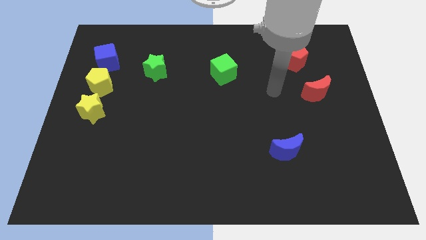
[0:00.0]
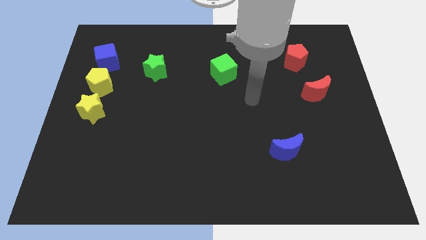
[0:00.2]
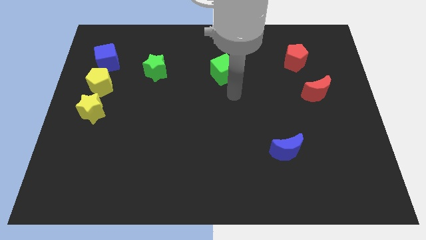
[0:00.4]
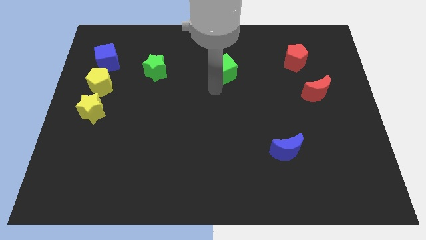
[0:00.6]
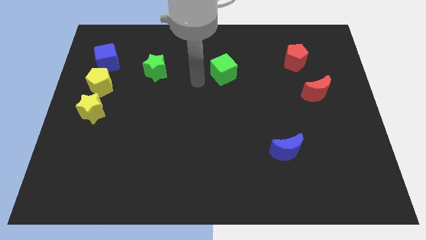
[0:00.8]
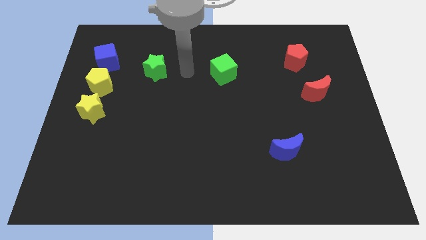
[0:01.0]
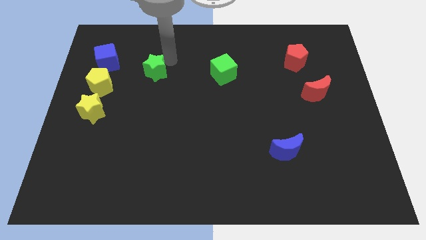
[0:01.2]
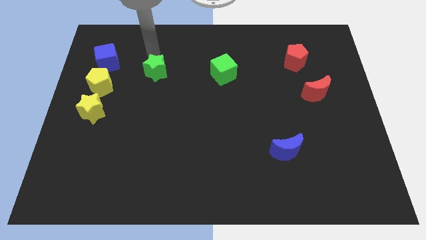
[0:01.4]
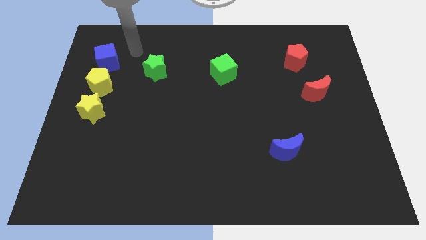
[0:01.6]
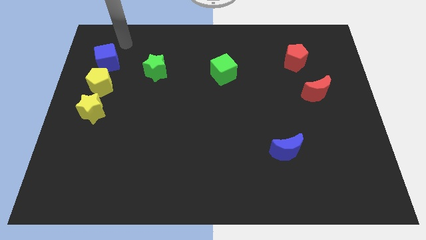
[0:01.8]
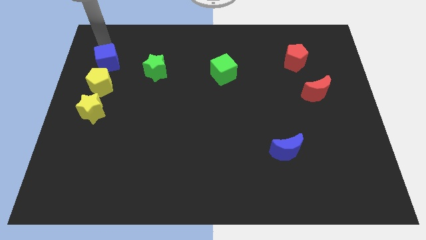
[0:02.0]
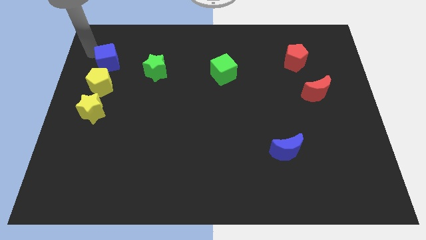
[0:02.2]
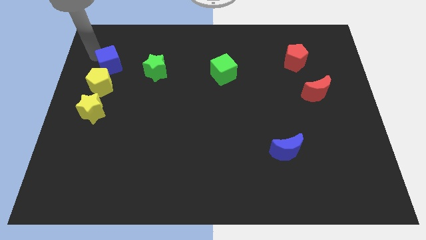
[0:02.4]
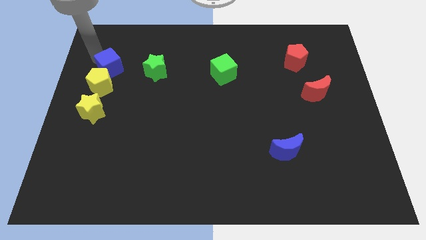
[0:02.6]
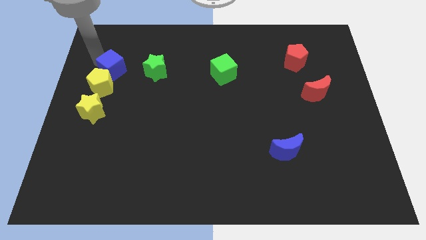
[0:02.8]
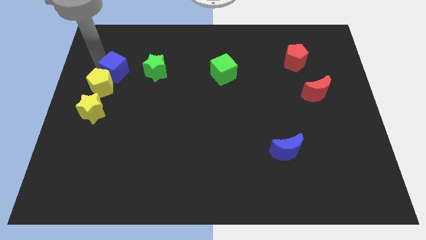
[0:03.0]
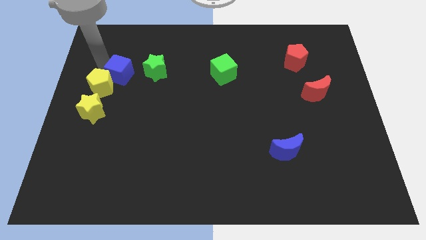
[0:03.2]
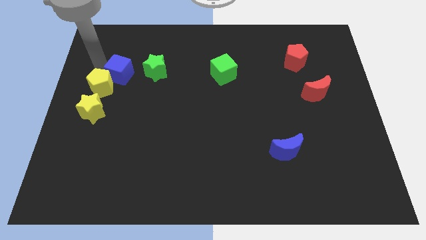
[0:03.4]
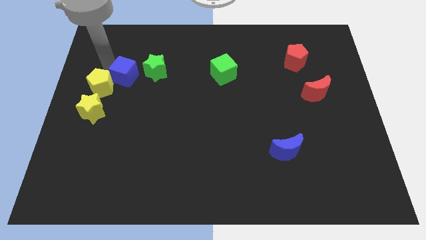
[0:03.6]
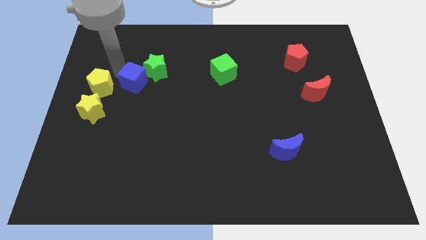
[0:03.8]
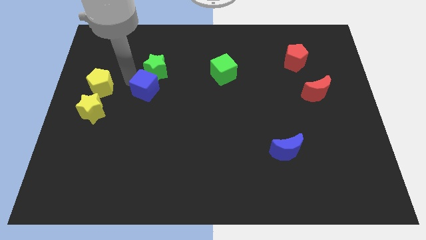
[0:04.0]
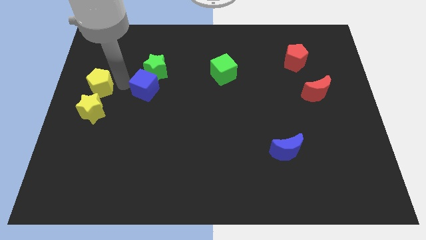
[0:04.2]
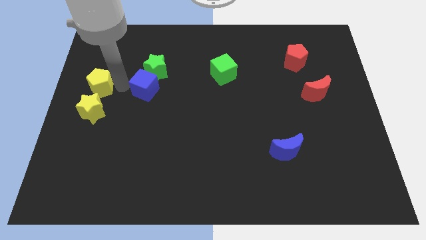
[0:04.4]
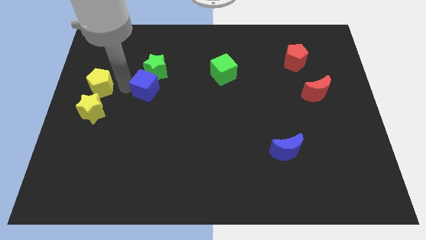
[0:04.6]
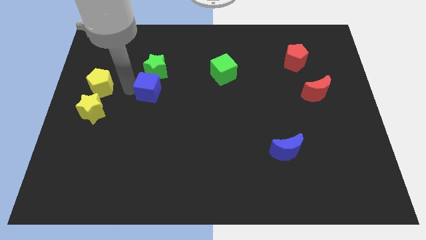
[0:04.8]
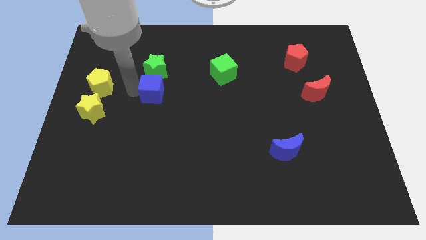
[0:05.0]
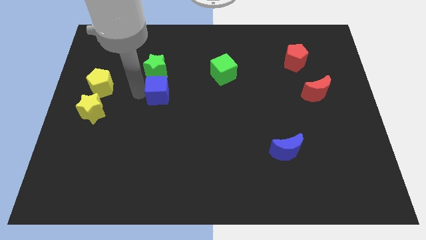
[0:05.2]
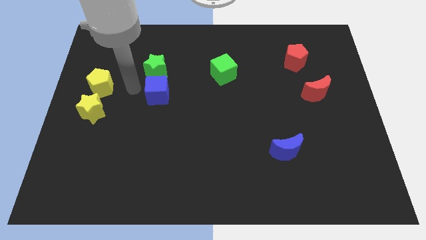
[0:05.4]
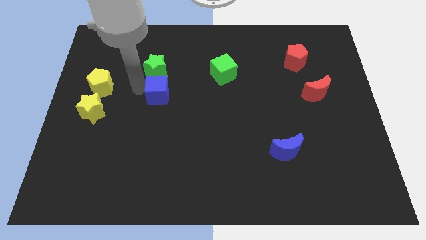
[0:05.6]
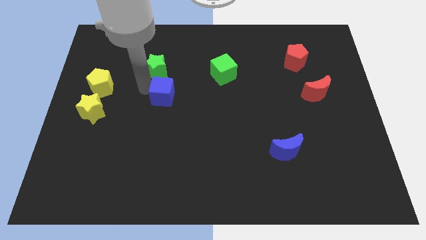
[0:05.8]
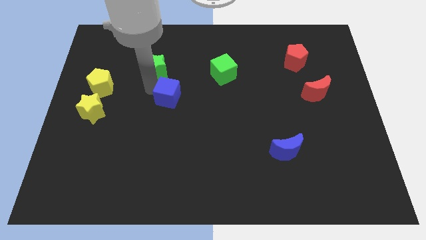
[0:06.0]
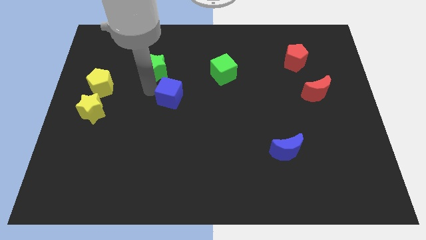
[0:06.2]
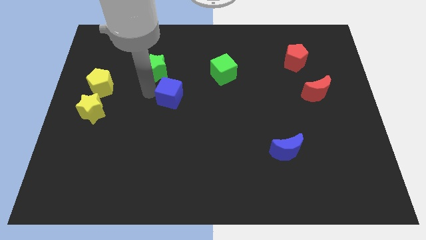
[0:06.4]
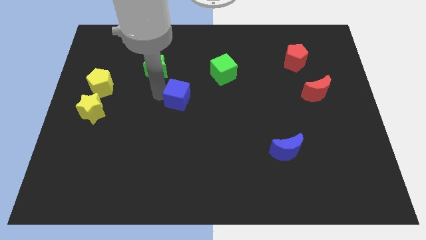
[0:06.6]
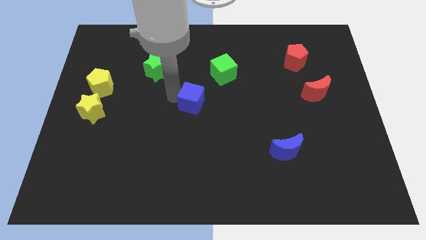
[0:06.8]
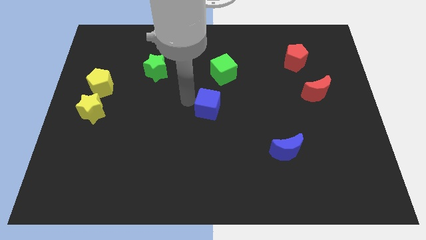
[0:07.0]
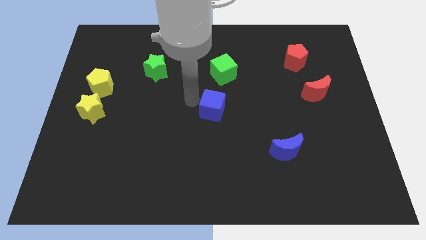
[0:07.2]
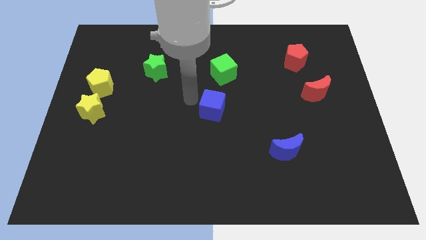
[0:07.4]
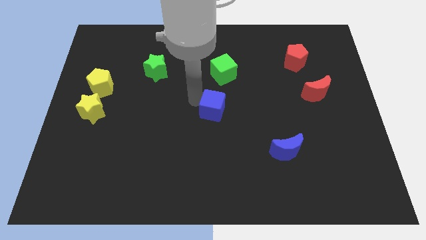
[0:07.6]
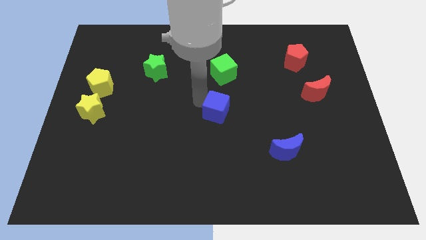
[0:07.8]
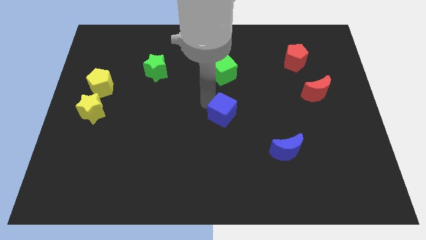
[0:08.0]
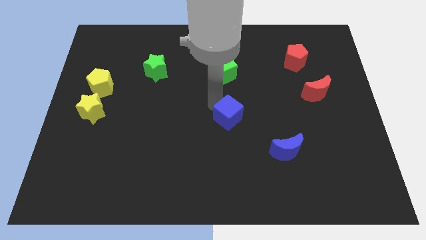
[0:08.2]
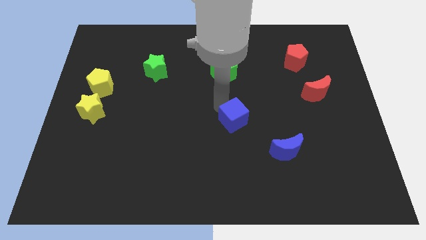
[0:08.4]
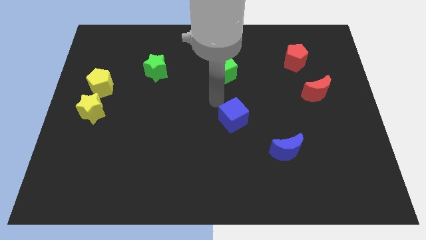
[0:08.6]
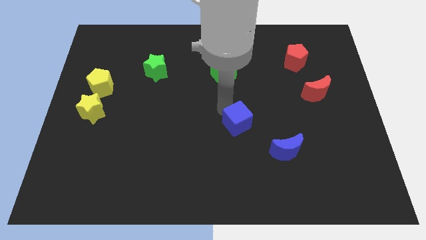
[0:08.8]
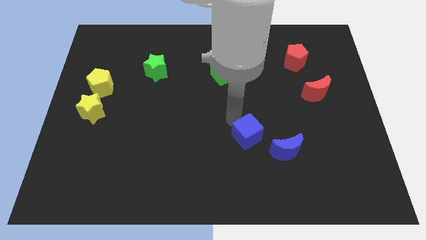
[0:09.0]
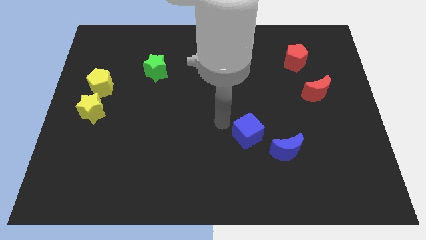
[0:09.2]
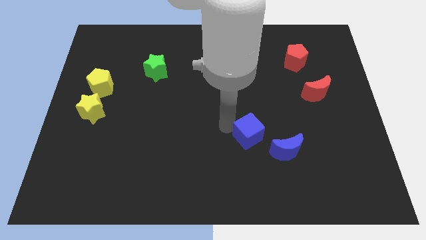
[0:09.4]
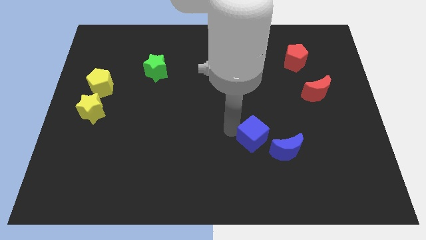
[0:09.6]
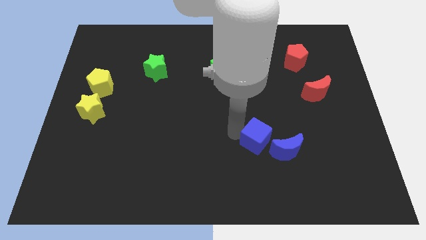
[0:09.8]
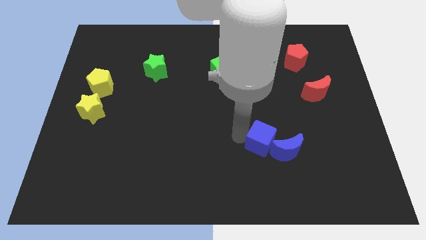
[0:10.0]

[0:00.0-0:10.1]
move the blue cube towards the blue moon

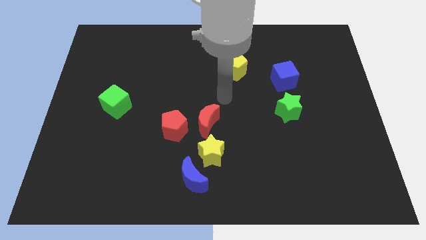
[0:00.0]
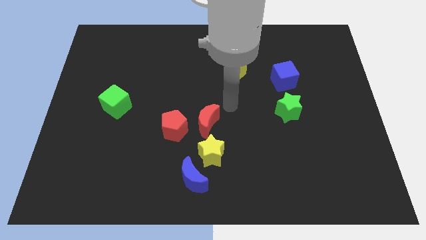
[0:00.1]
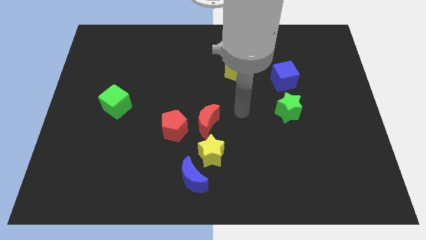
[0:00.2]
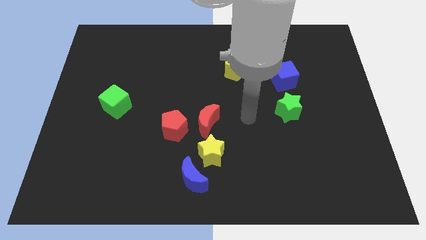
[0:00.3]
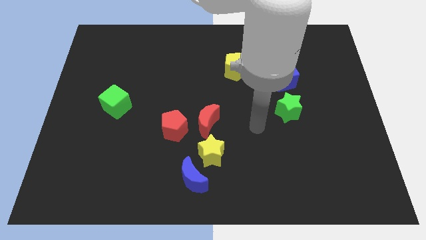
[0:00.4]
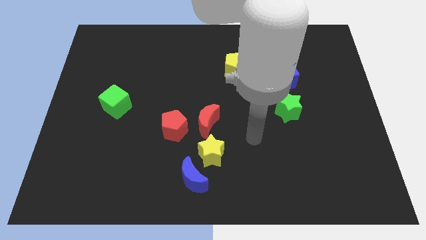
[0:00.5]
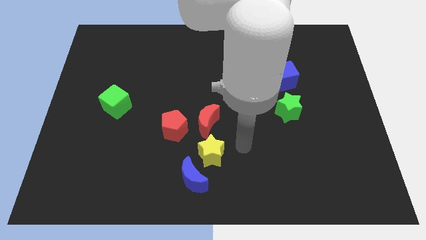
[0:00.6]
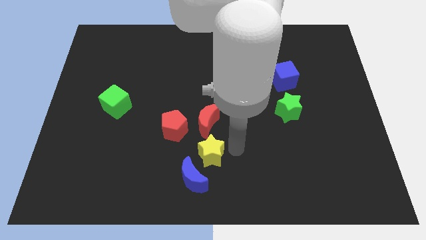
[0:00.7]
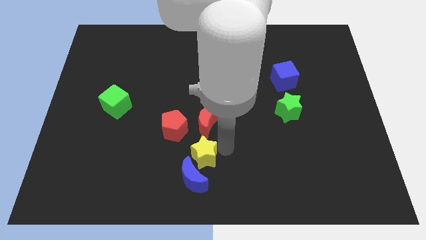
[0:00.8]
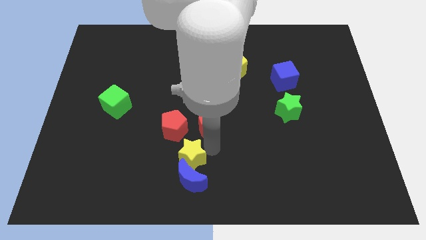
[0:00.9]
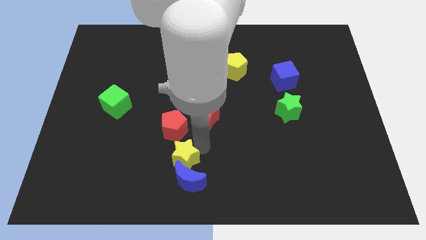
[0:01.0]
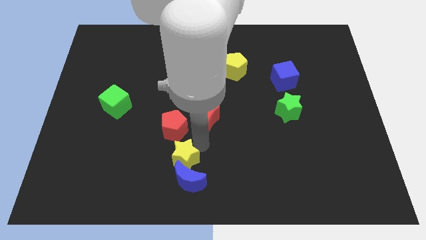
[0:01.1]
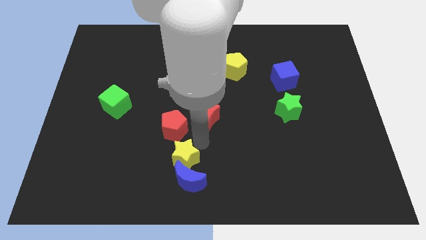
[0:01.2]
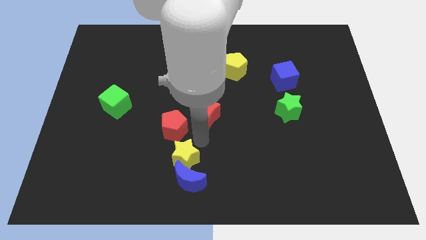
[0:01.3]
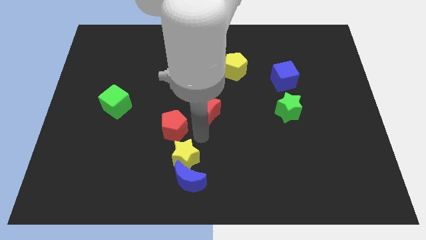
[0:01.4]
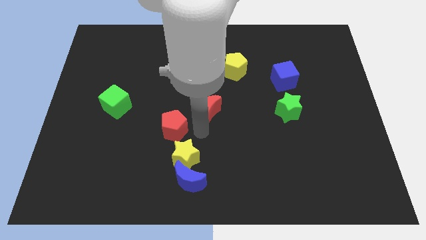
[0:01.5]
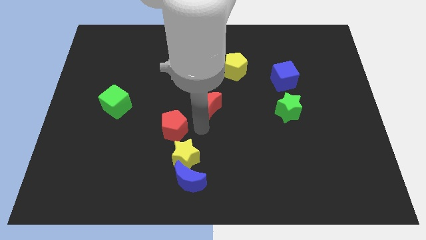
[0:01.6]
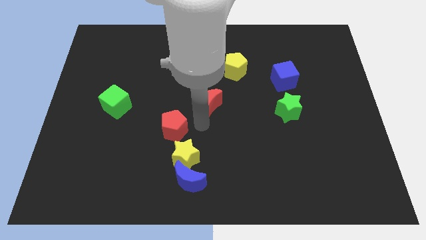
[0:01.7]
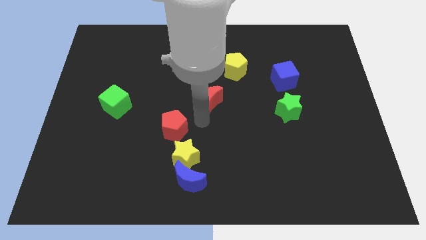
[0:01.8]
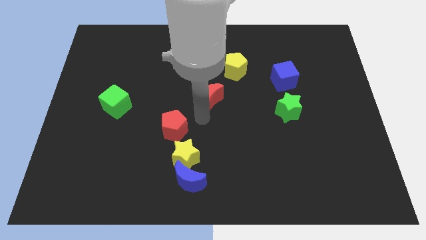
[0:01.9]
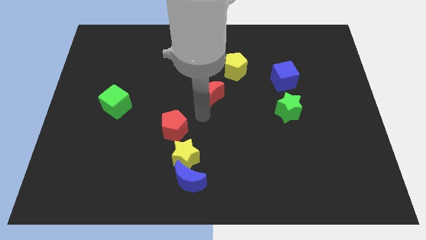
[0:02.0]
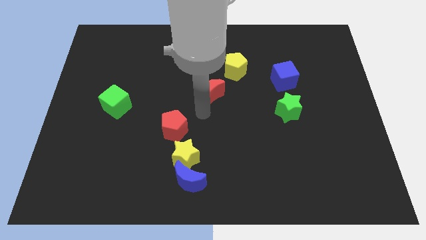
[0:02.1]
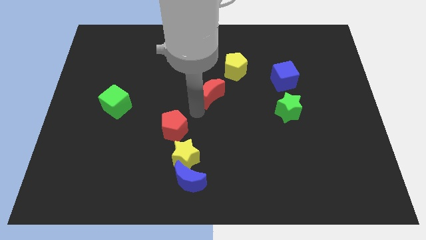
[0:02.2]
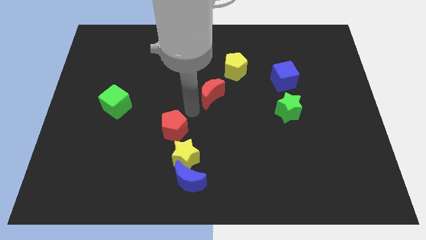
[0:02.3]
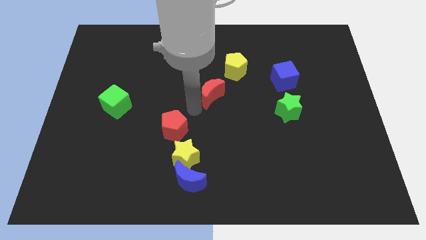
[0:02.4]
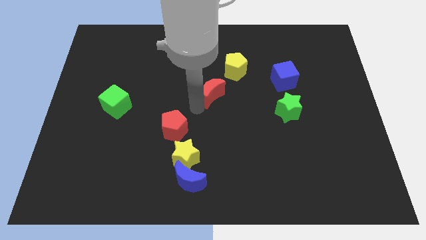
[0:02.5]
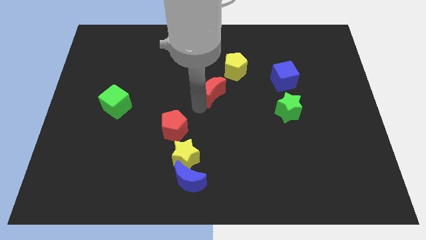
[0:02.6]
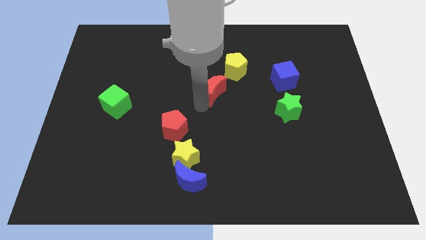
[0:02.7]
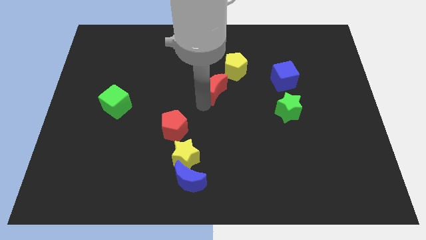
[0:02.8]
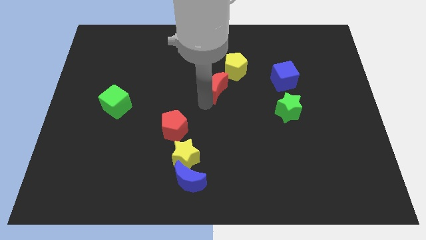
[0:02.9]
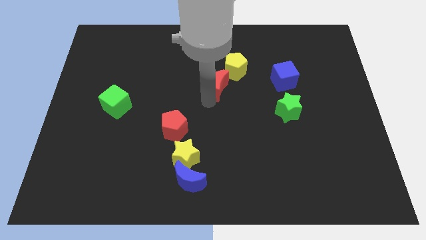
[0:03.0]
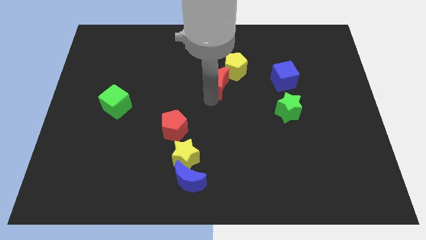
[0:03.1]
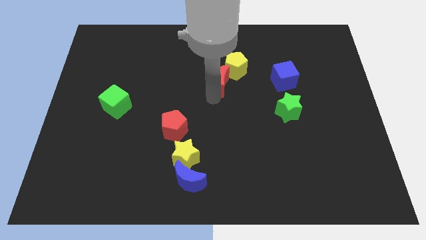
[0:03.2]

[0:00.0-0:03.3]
move the red moon towards the yellow pentagon
